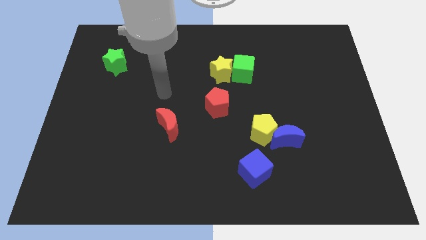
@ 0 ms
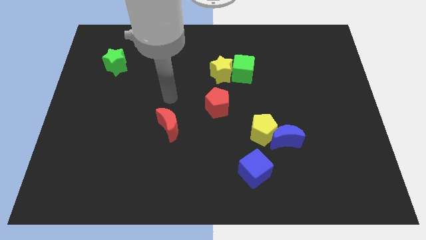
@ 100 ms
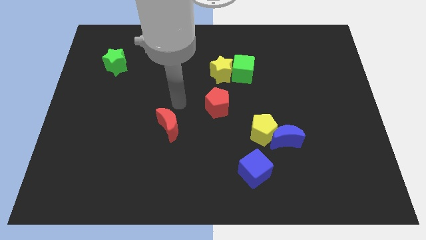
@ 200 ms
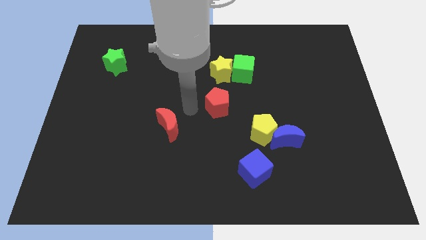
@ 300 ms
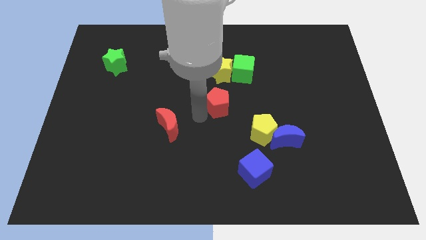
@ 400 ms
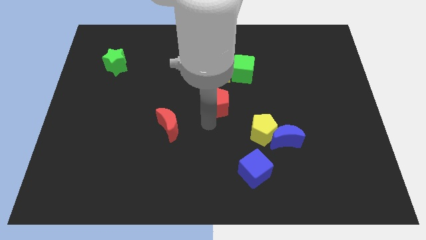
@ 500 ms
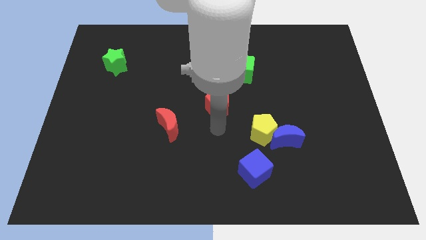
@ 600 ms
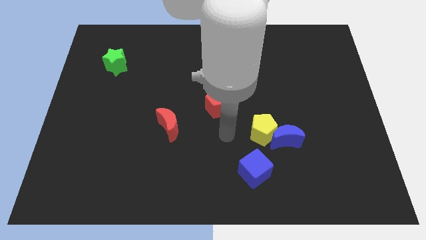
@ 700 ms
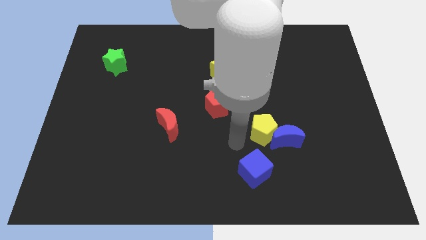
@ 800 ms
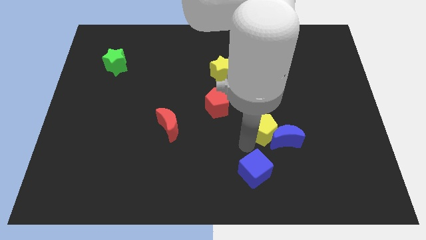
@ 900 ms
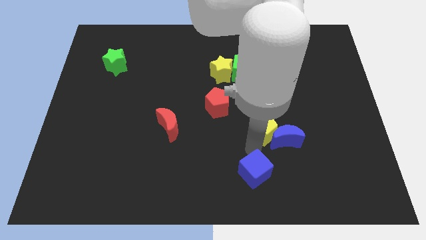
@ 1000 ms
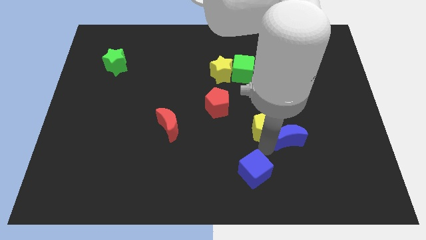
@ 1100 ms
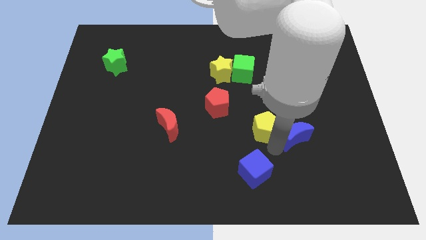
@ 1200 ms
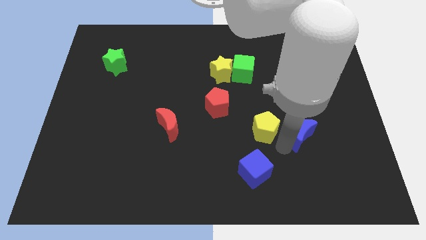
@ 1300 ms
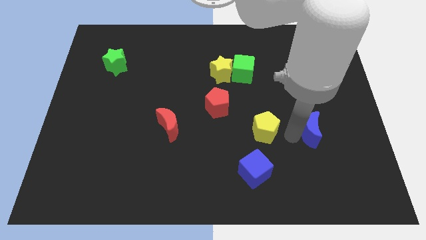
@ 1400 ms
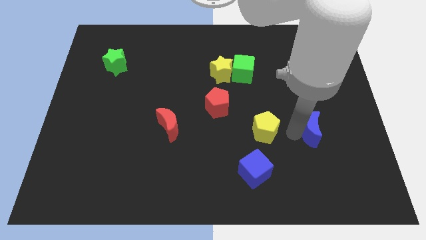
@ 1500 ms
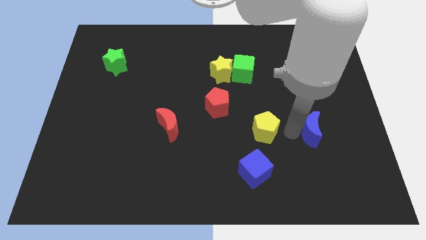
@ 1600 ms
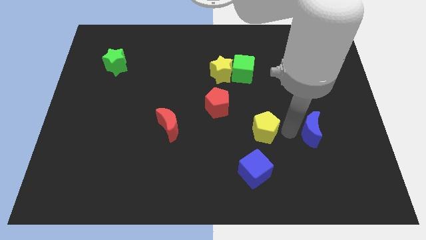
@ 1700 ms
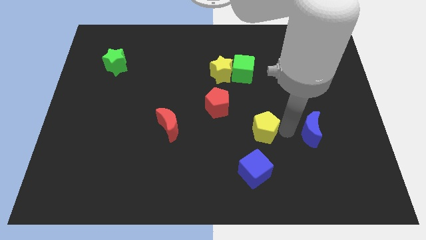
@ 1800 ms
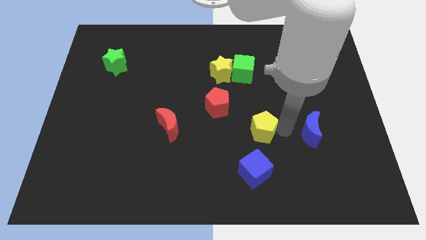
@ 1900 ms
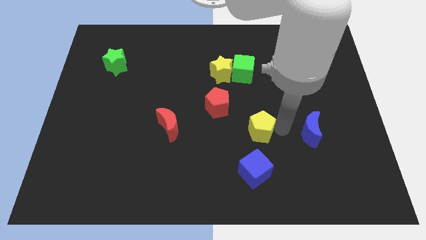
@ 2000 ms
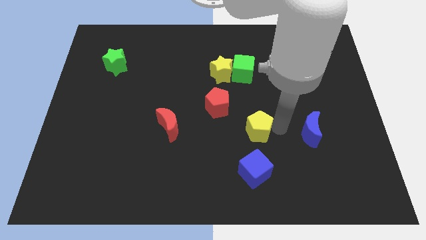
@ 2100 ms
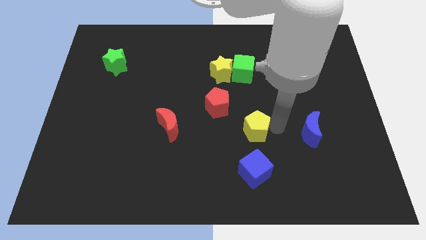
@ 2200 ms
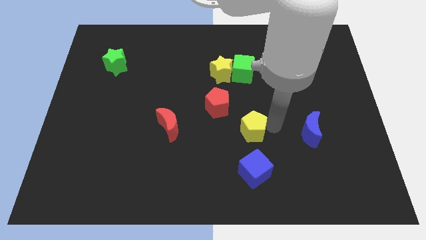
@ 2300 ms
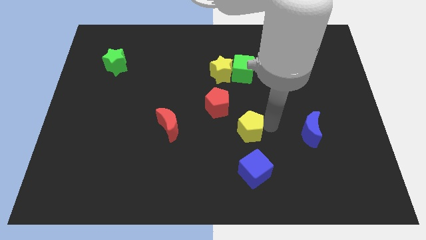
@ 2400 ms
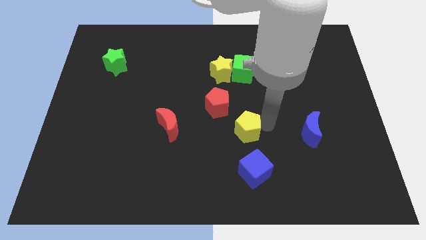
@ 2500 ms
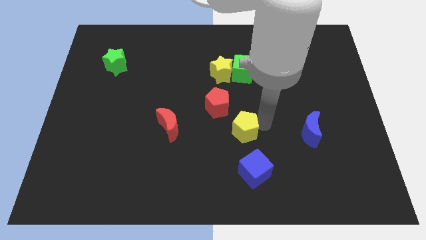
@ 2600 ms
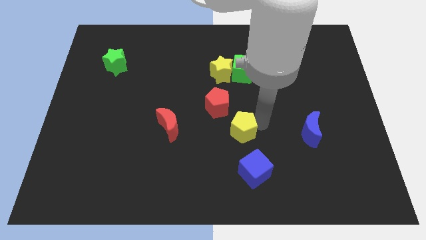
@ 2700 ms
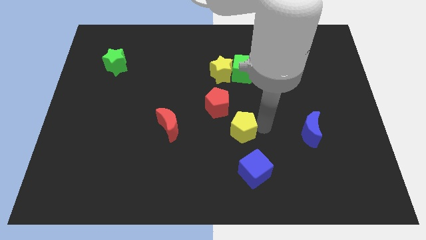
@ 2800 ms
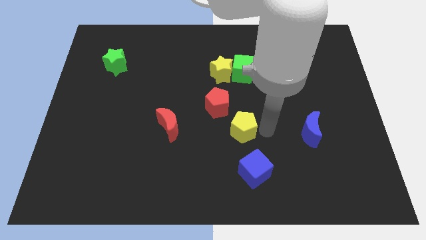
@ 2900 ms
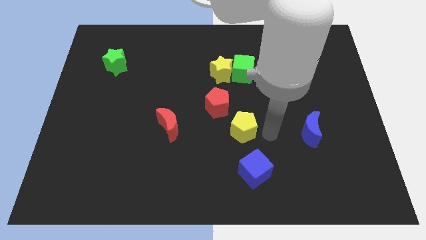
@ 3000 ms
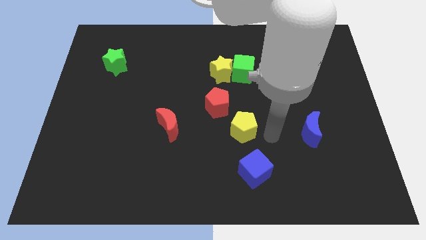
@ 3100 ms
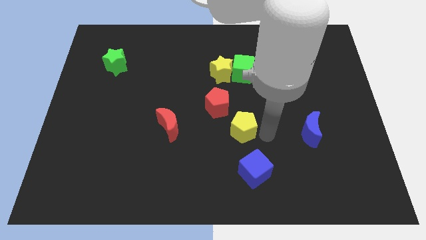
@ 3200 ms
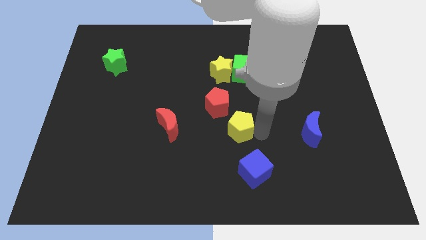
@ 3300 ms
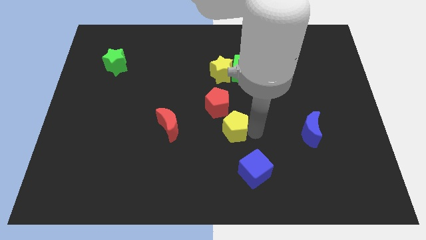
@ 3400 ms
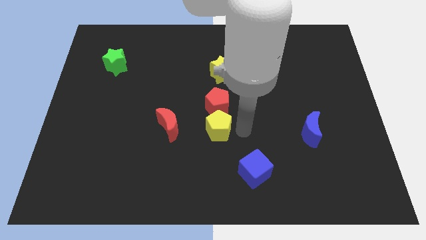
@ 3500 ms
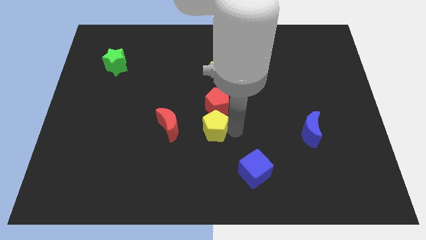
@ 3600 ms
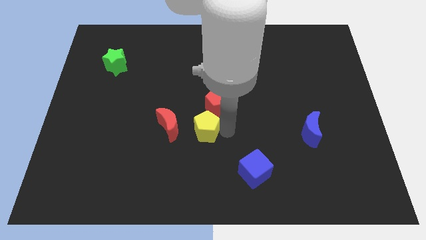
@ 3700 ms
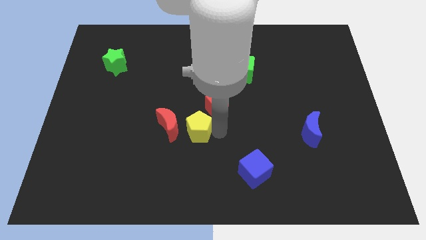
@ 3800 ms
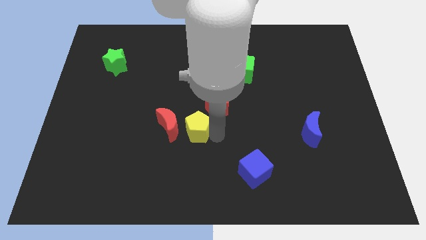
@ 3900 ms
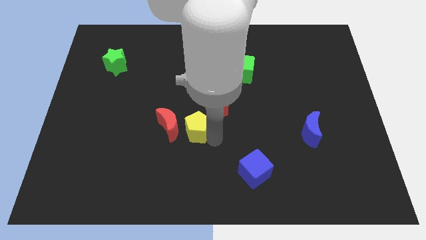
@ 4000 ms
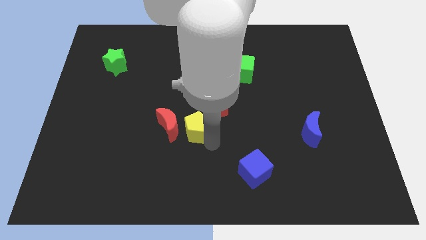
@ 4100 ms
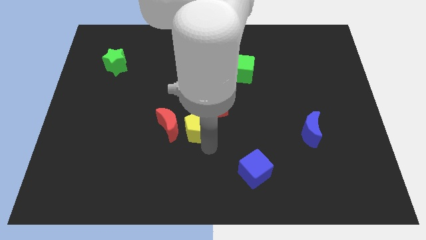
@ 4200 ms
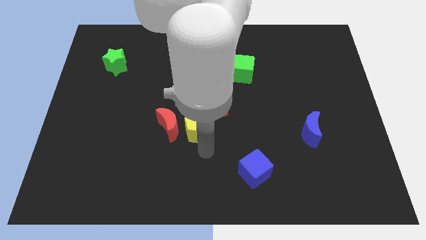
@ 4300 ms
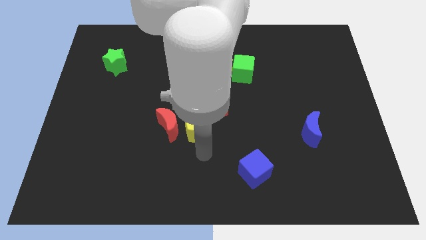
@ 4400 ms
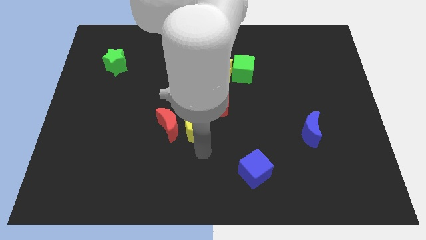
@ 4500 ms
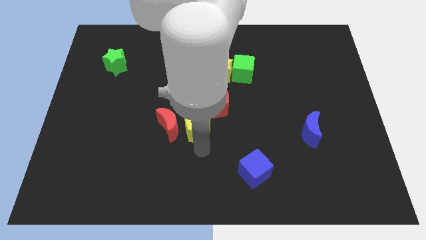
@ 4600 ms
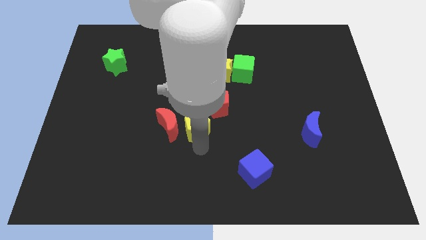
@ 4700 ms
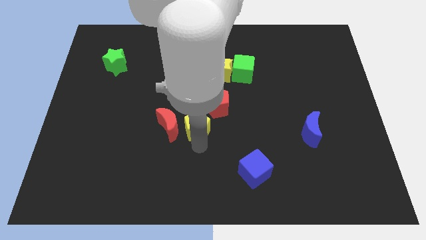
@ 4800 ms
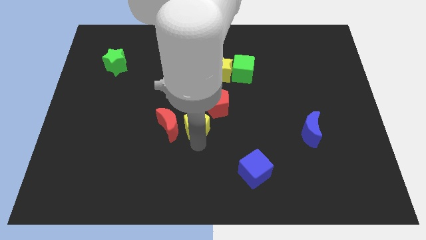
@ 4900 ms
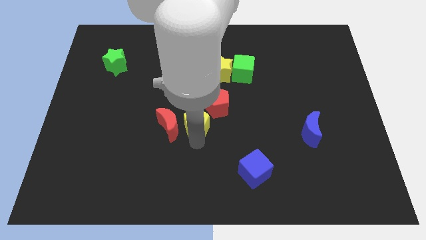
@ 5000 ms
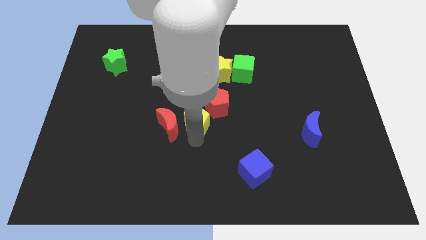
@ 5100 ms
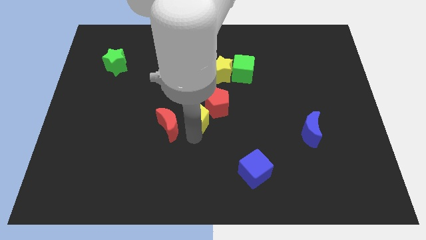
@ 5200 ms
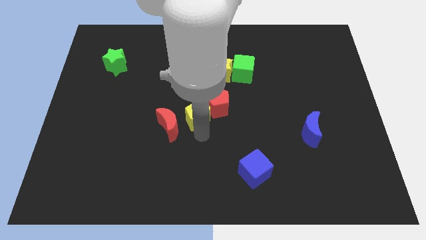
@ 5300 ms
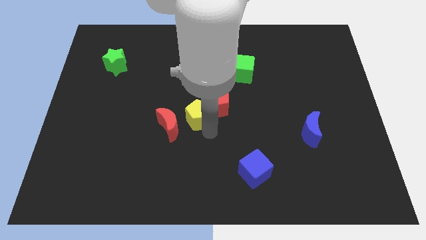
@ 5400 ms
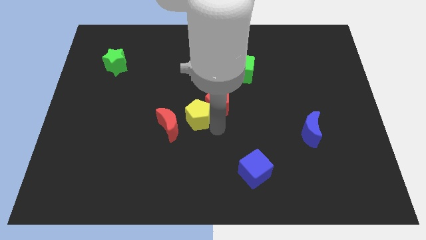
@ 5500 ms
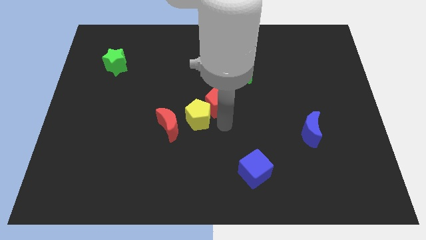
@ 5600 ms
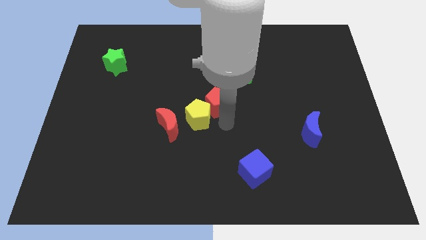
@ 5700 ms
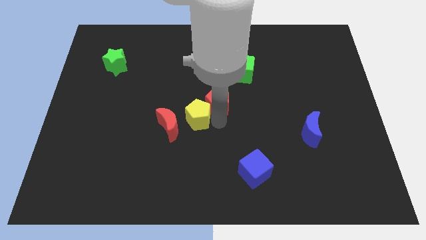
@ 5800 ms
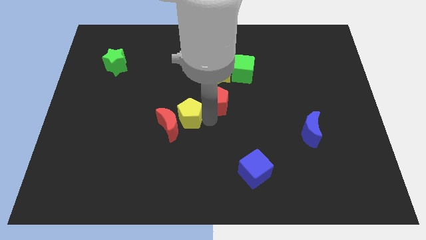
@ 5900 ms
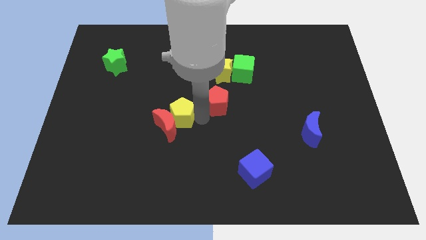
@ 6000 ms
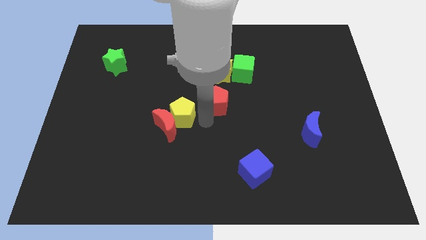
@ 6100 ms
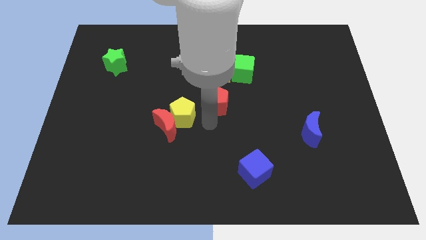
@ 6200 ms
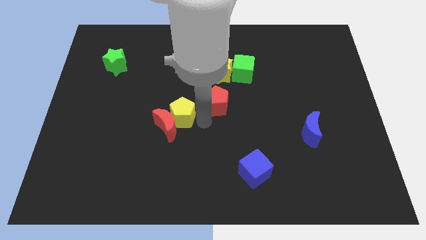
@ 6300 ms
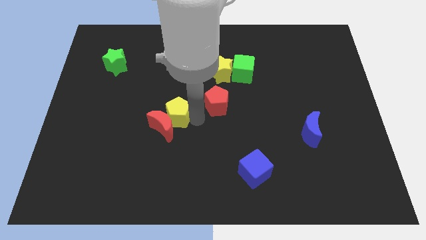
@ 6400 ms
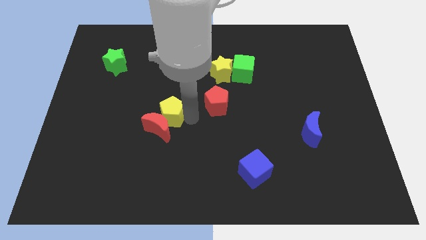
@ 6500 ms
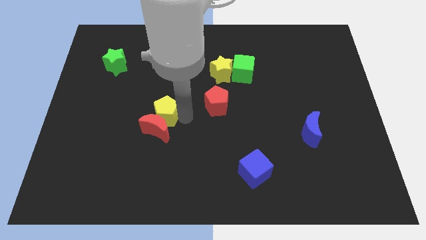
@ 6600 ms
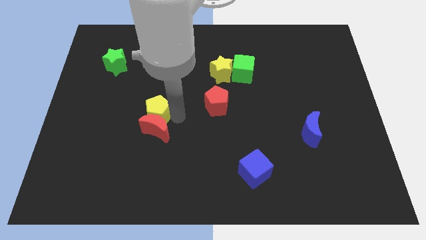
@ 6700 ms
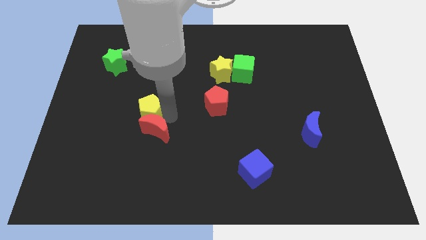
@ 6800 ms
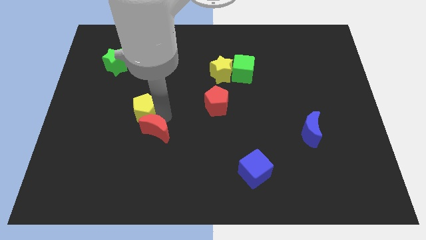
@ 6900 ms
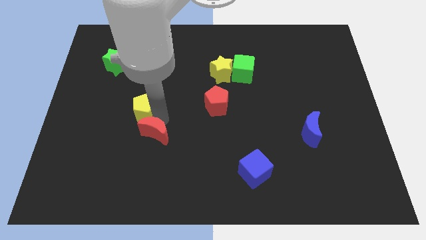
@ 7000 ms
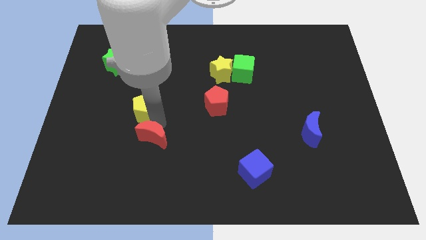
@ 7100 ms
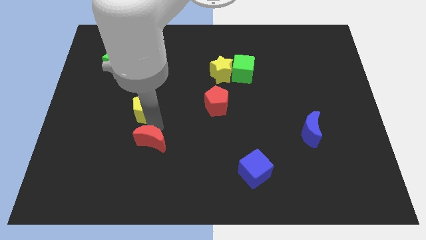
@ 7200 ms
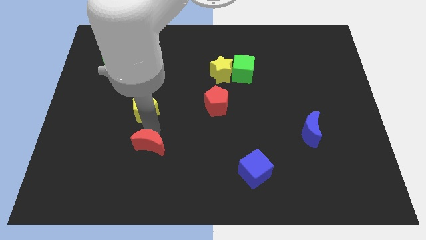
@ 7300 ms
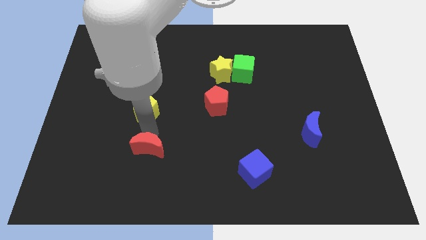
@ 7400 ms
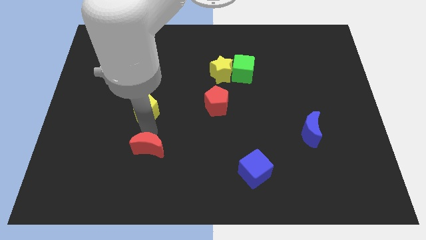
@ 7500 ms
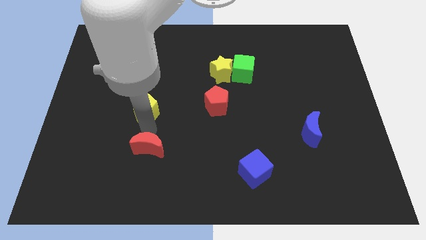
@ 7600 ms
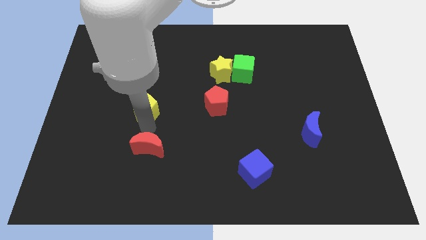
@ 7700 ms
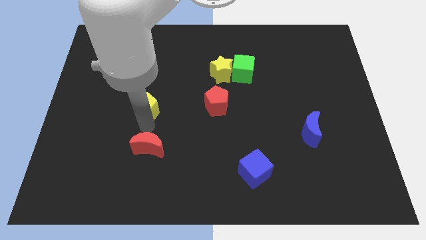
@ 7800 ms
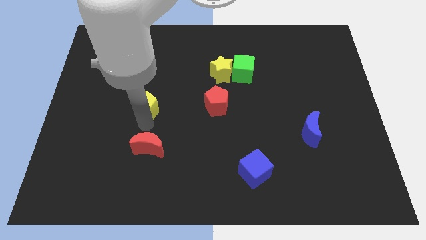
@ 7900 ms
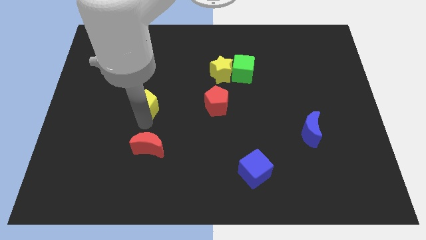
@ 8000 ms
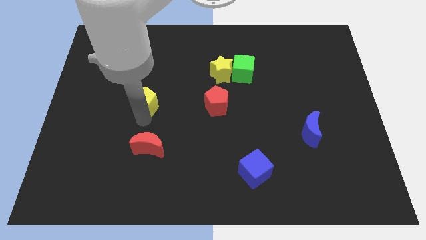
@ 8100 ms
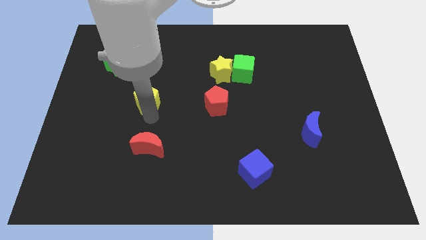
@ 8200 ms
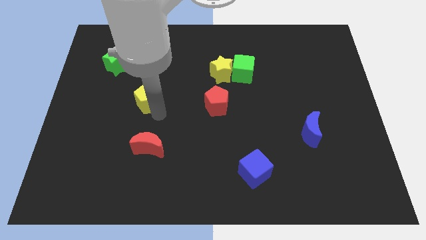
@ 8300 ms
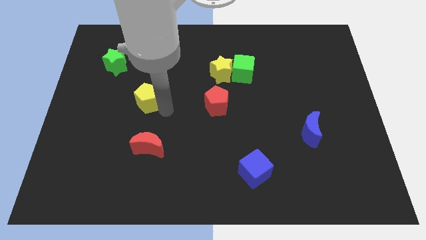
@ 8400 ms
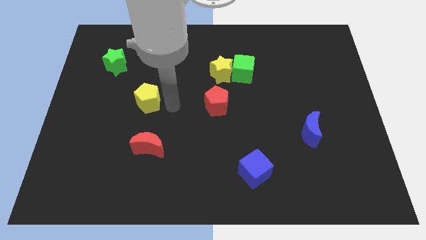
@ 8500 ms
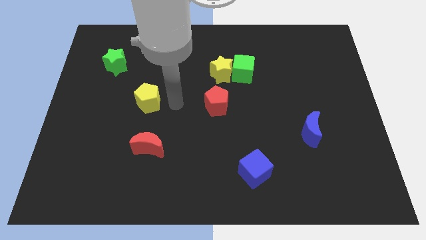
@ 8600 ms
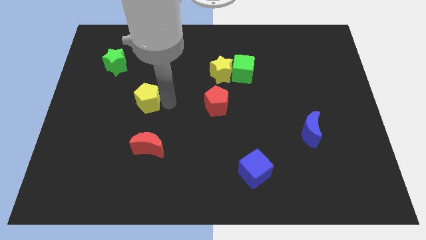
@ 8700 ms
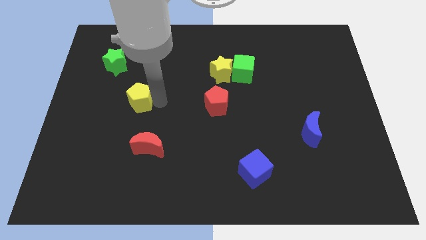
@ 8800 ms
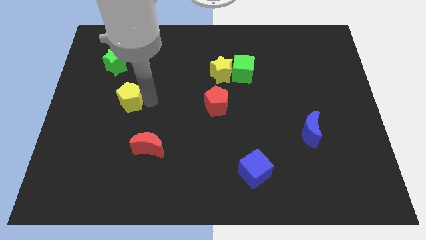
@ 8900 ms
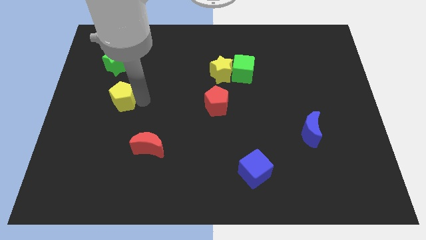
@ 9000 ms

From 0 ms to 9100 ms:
push the yellow pentagon to the bottom of the green star
